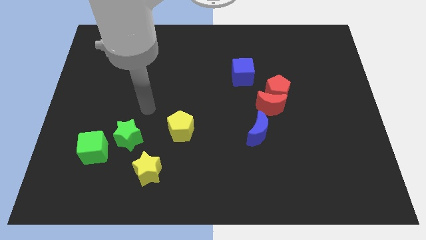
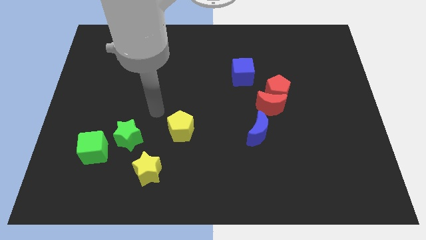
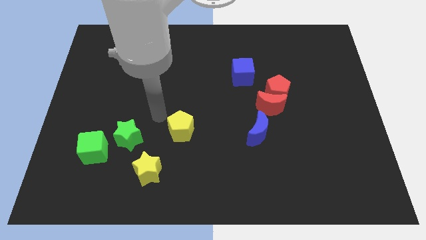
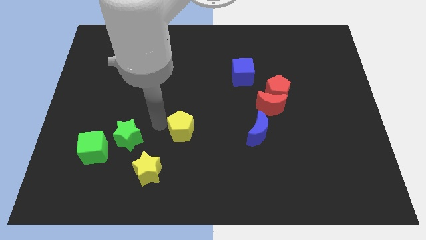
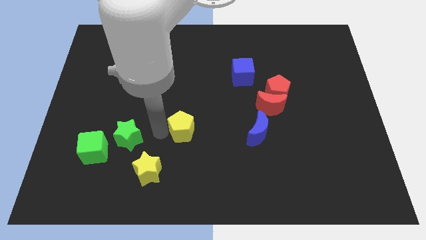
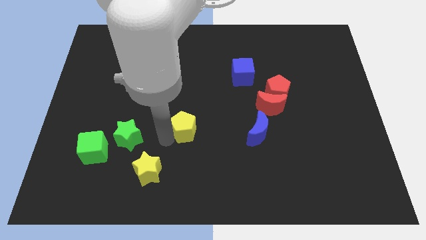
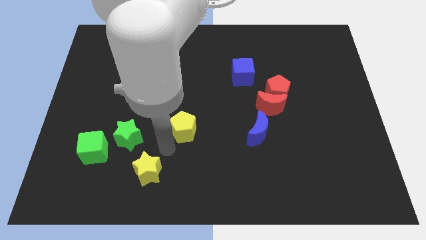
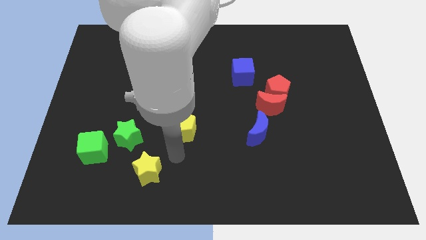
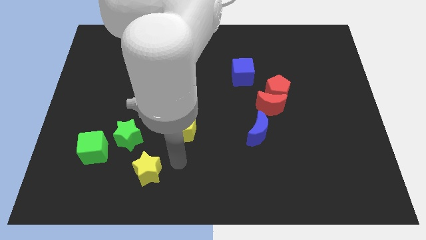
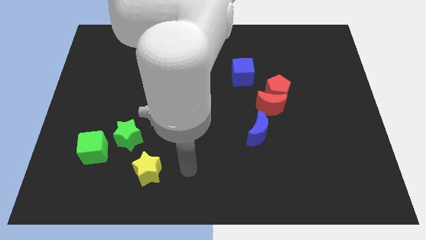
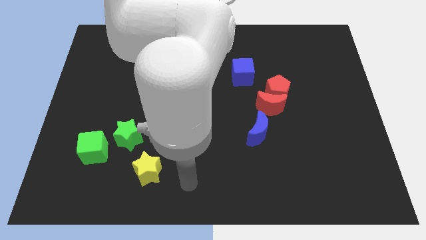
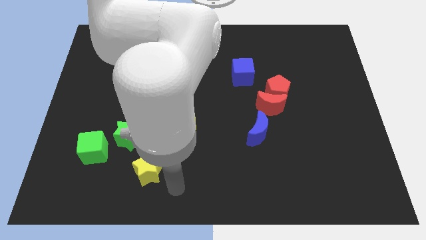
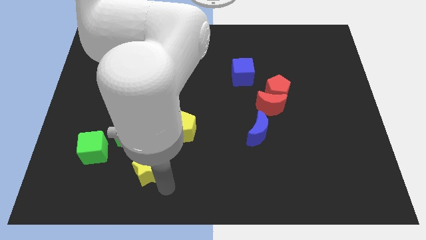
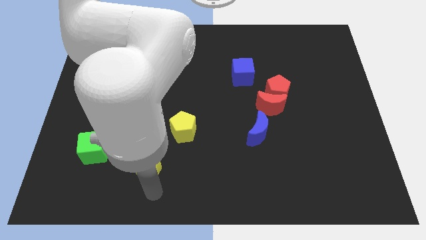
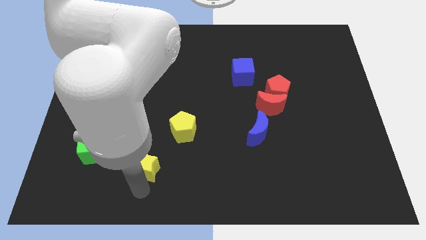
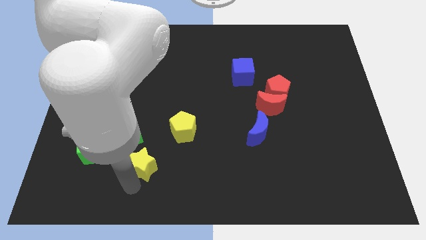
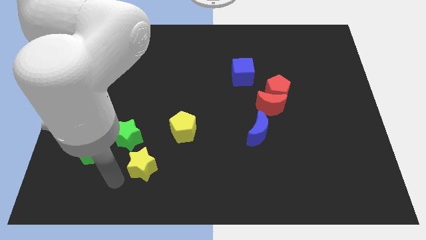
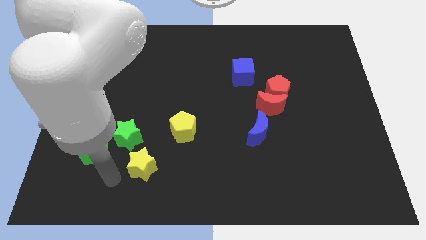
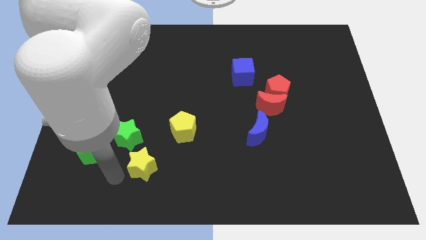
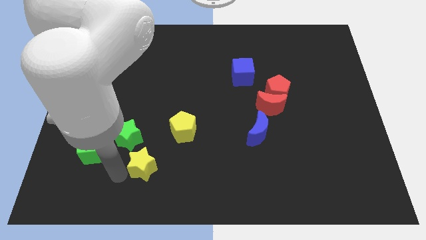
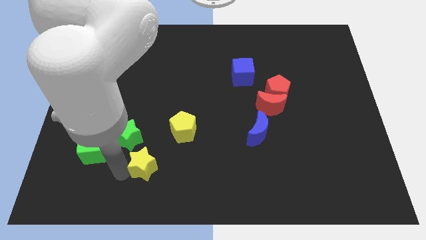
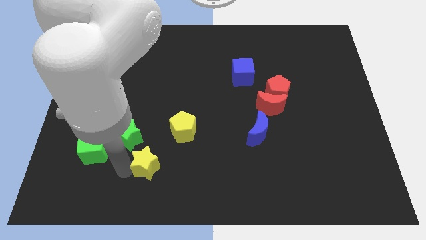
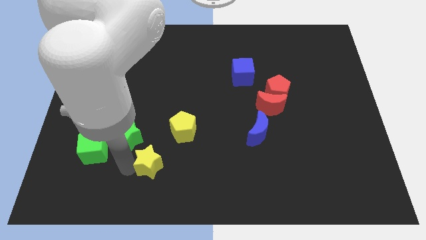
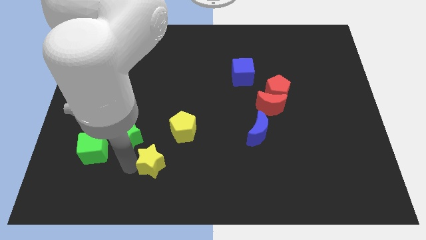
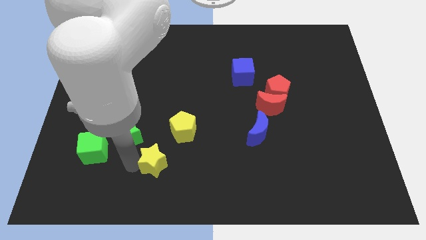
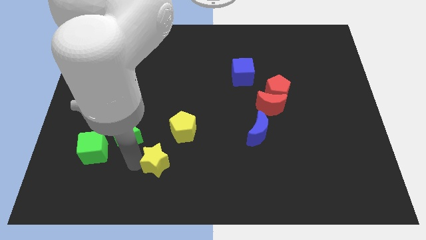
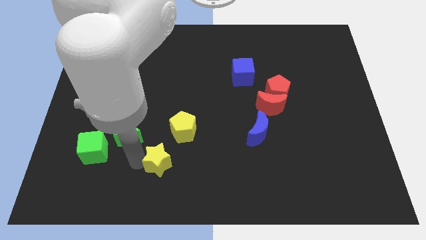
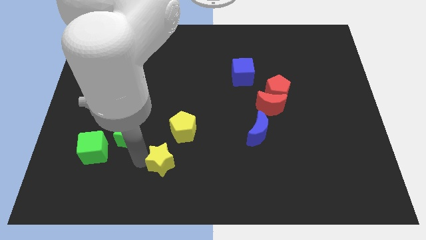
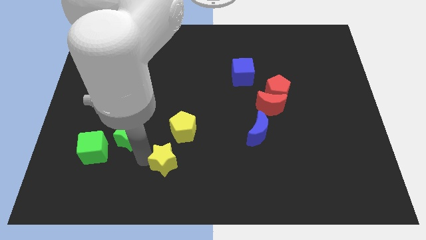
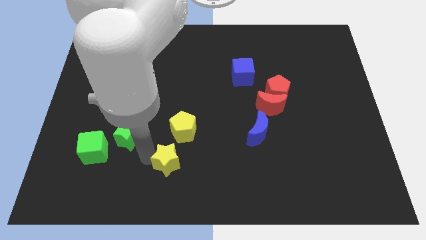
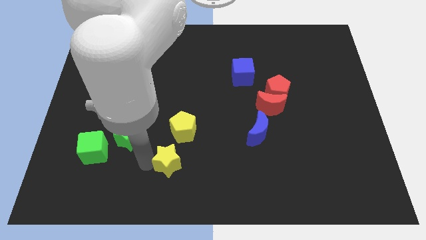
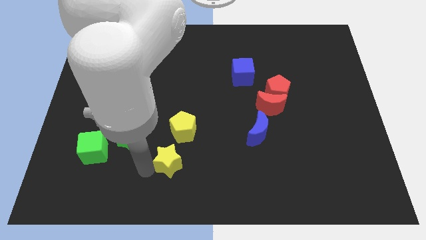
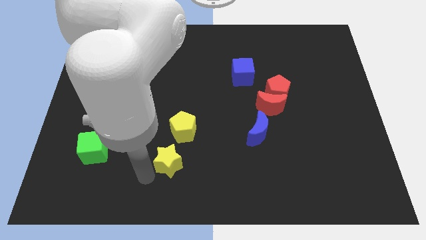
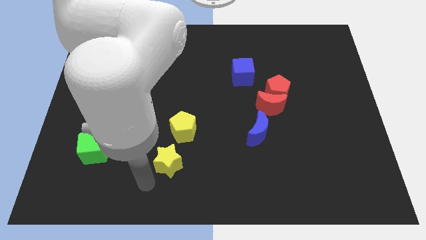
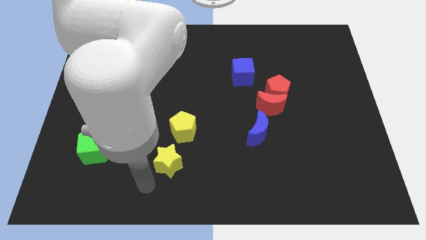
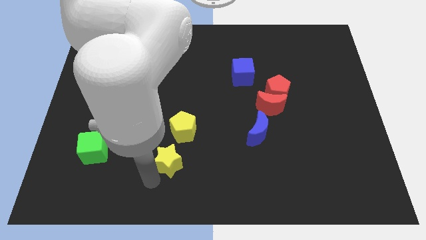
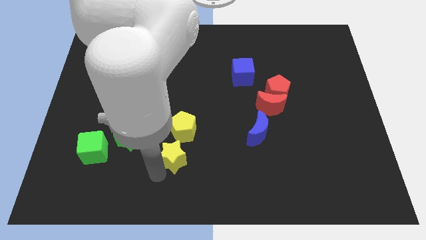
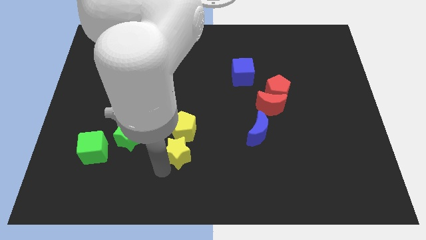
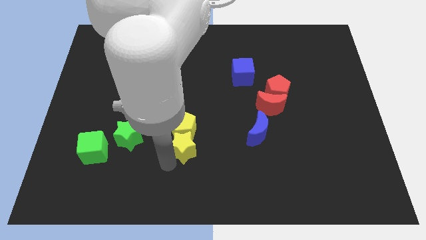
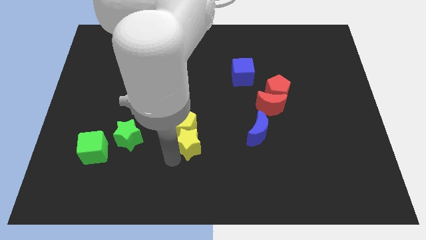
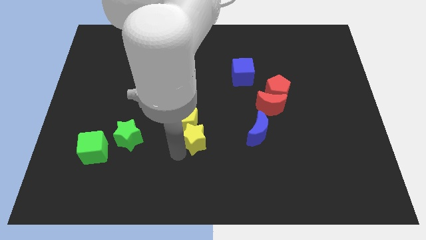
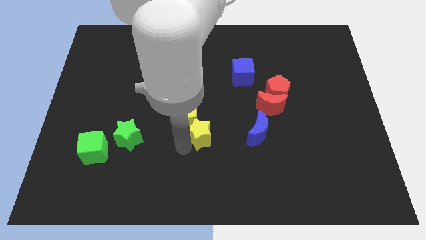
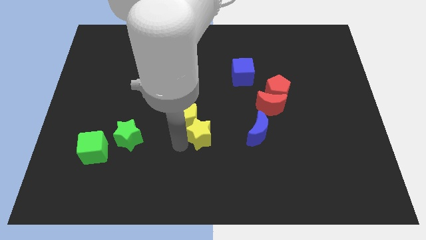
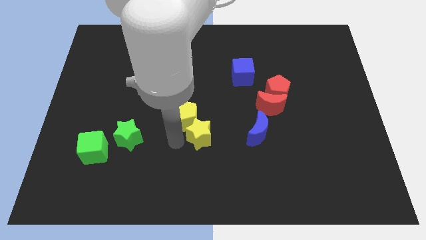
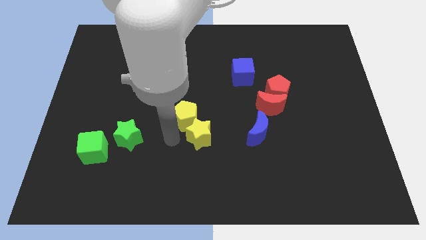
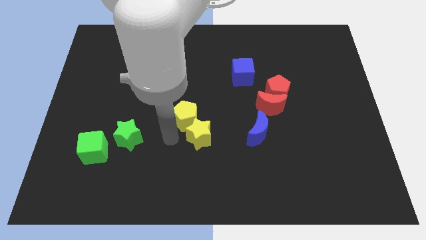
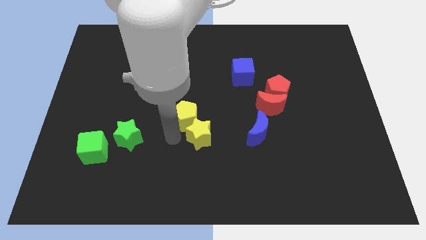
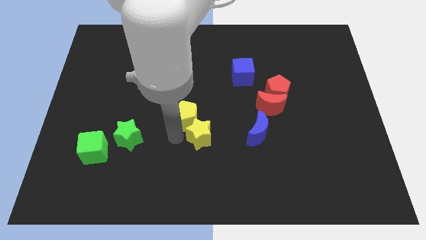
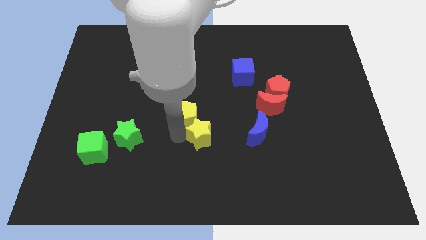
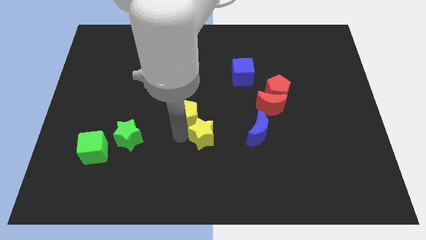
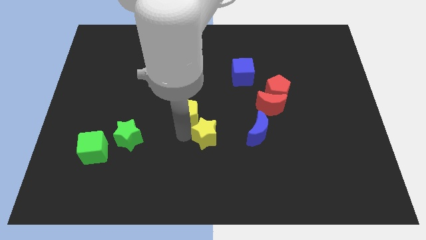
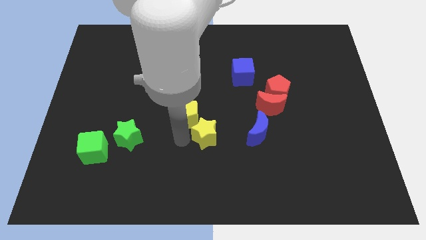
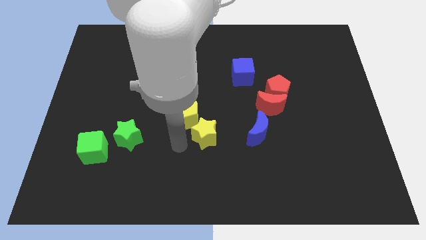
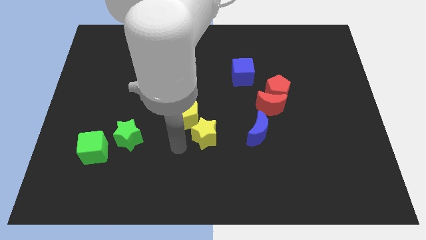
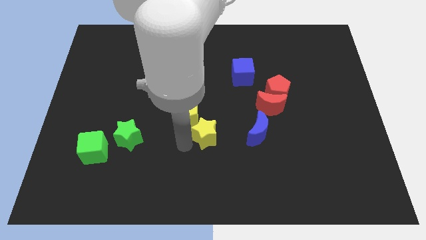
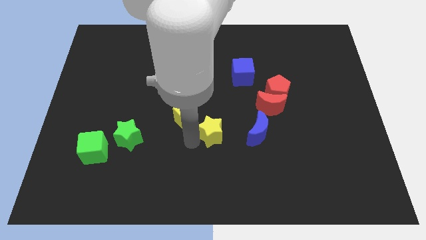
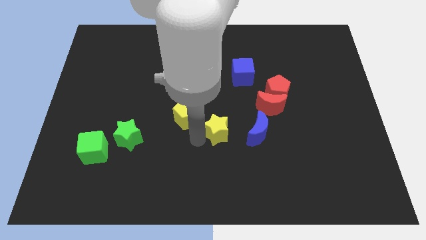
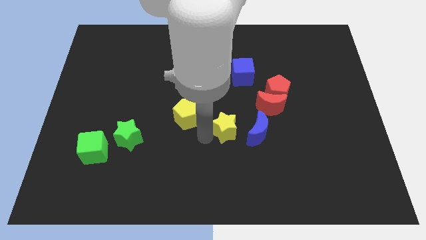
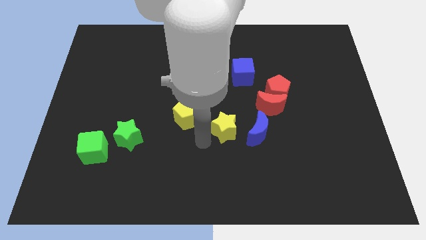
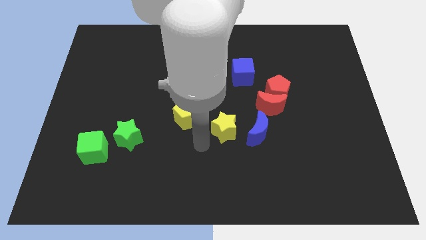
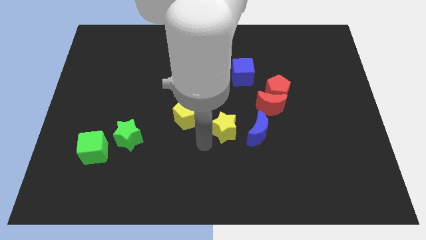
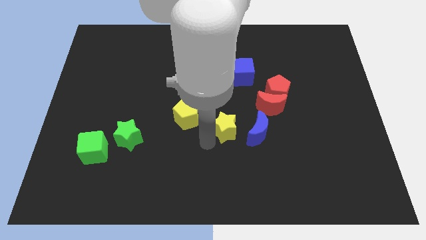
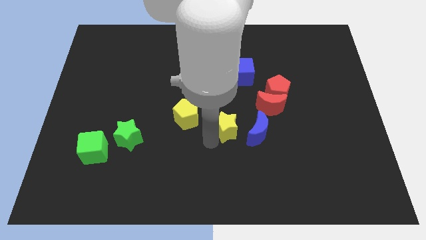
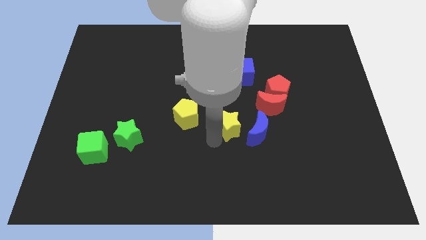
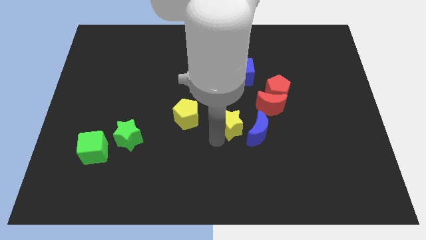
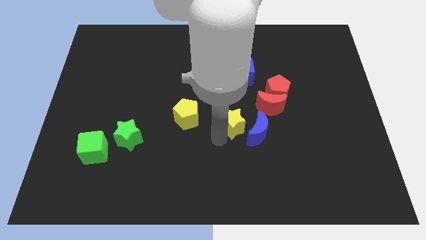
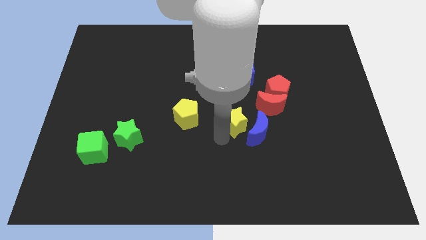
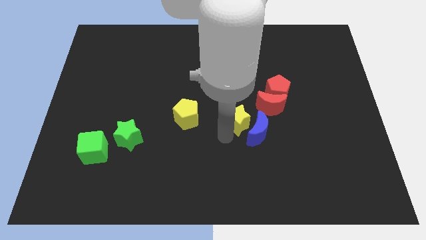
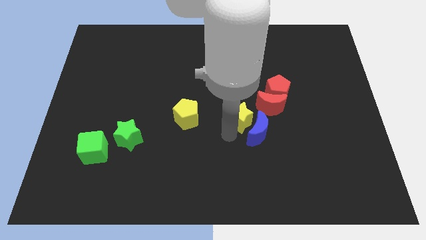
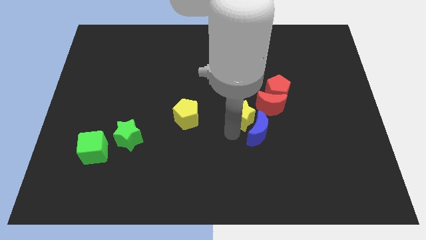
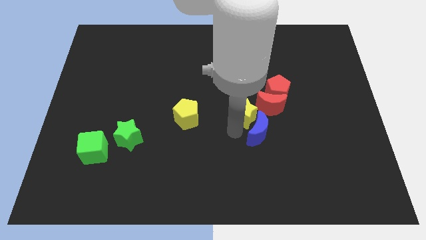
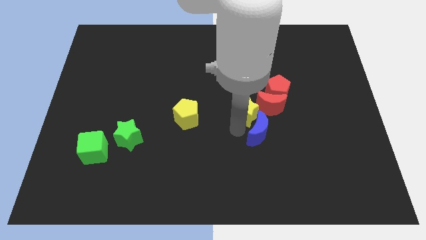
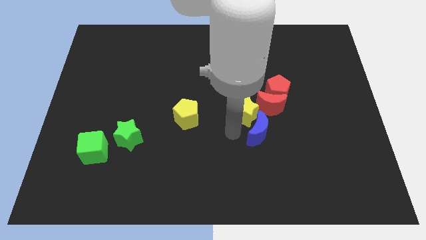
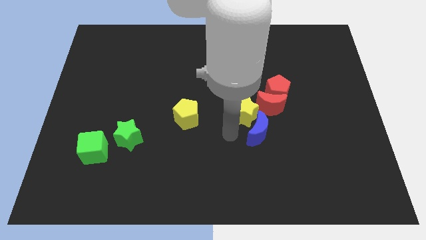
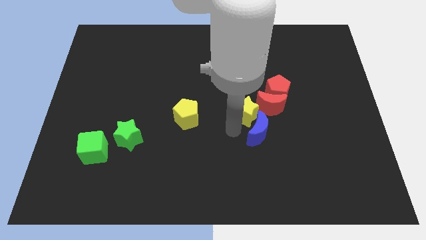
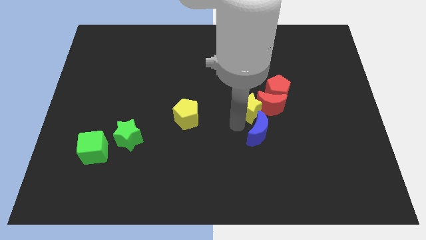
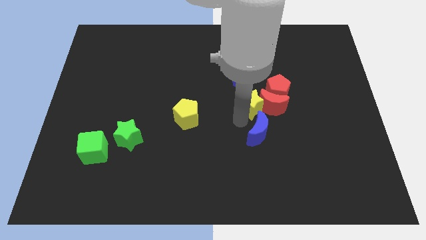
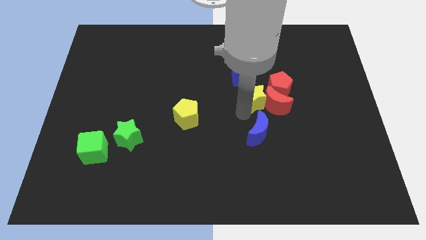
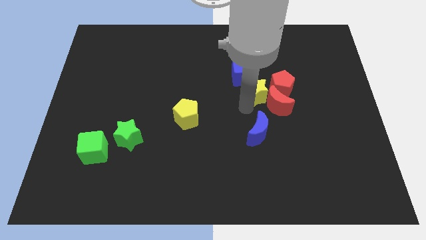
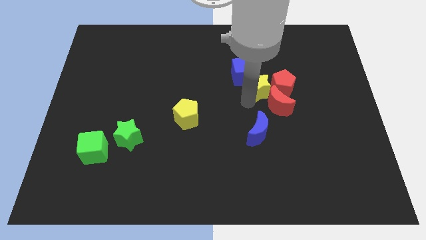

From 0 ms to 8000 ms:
put the yellow star next to the red pentagon
